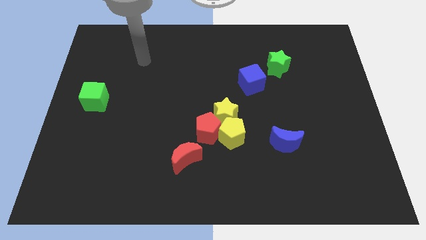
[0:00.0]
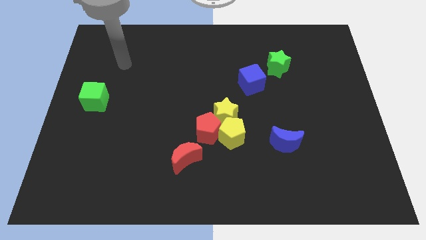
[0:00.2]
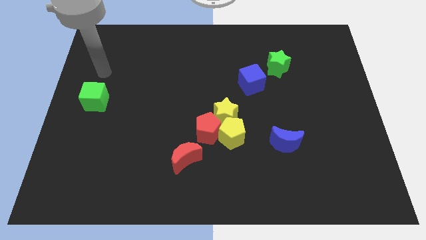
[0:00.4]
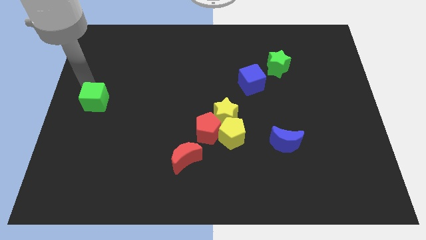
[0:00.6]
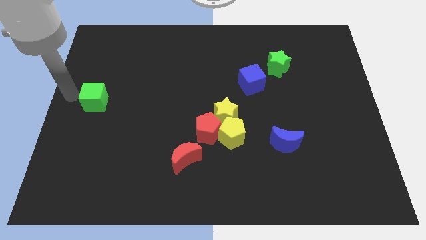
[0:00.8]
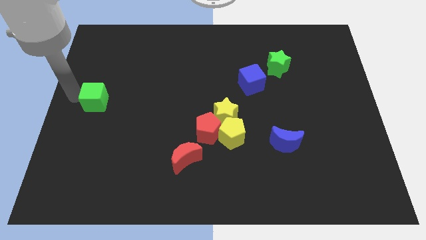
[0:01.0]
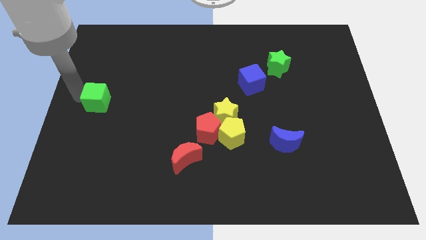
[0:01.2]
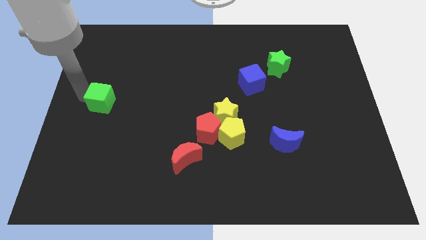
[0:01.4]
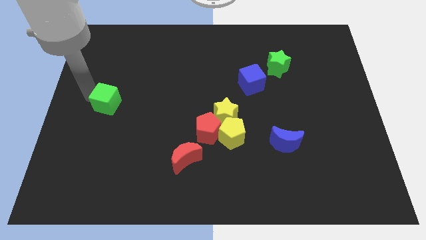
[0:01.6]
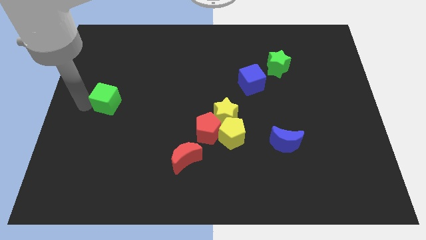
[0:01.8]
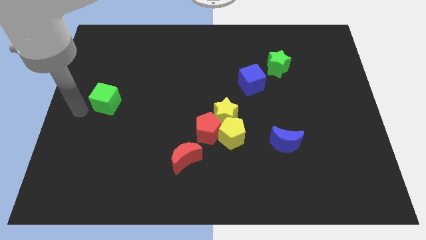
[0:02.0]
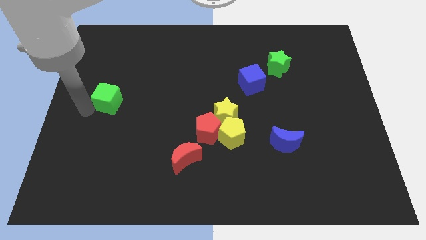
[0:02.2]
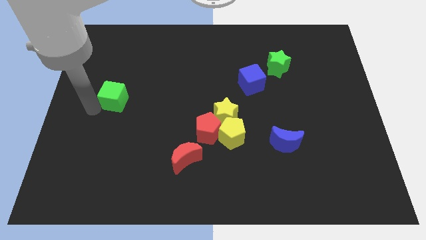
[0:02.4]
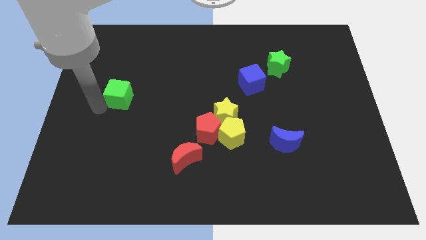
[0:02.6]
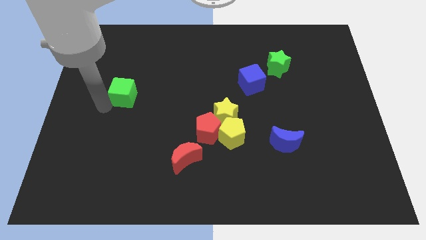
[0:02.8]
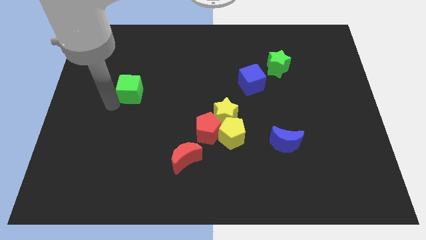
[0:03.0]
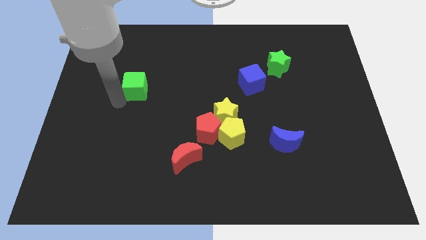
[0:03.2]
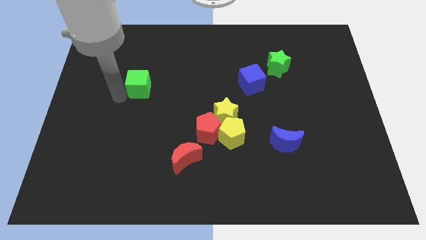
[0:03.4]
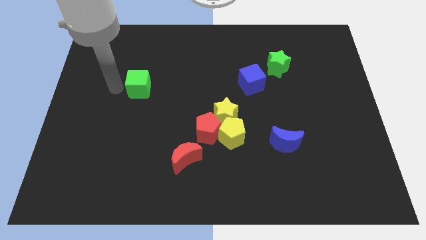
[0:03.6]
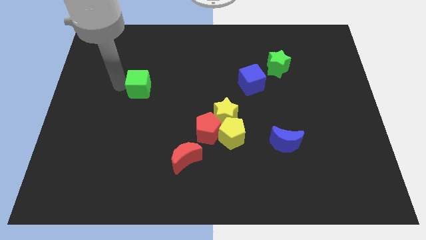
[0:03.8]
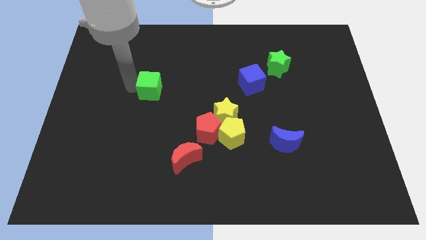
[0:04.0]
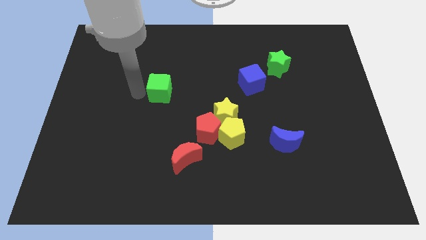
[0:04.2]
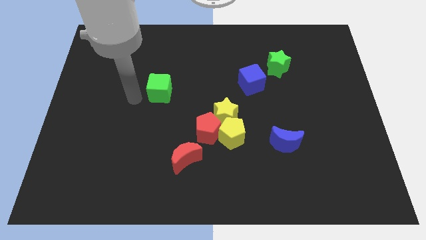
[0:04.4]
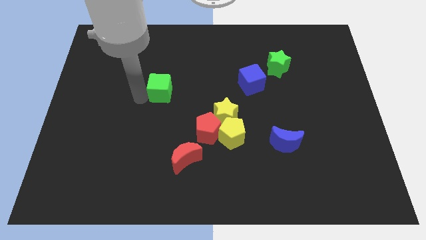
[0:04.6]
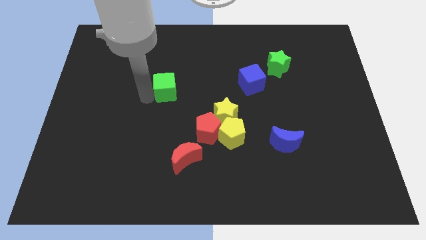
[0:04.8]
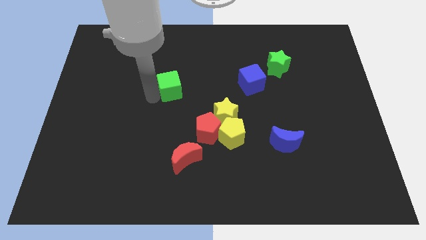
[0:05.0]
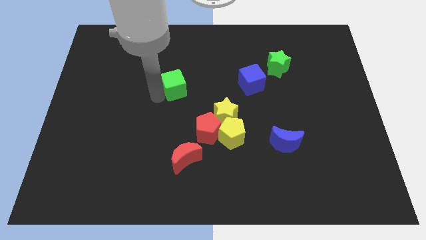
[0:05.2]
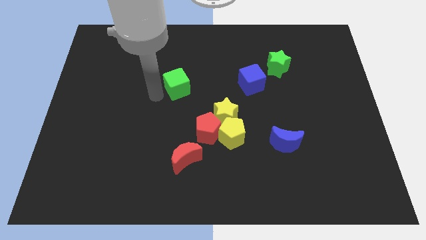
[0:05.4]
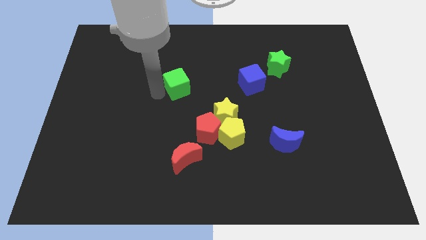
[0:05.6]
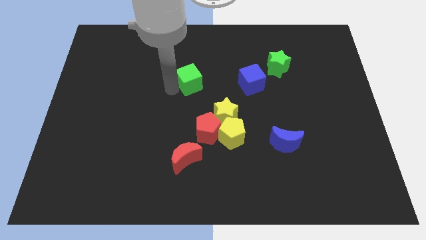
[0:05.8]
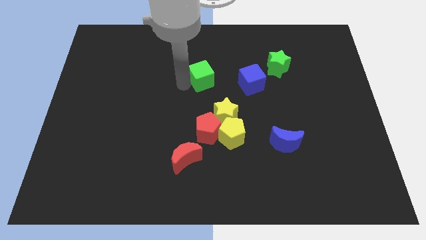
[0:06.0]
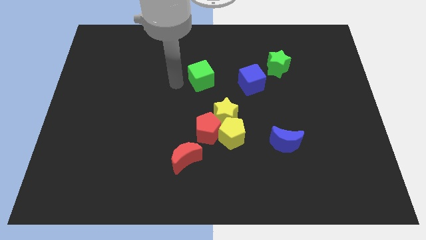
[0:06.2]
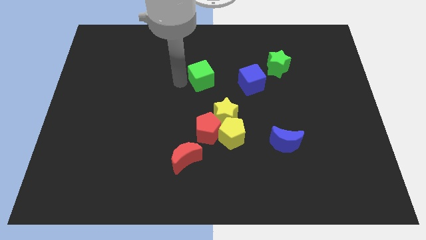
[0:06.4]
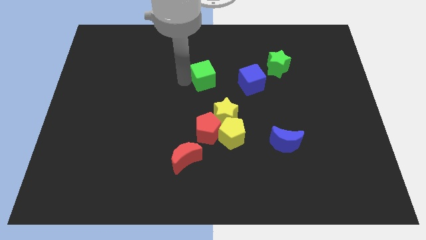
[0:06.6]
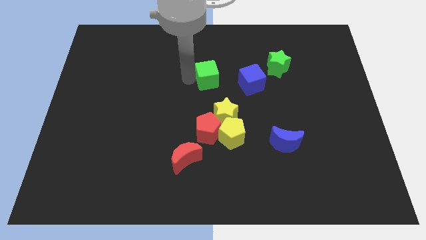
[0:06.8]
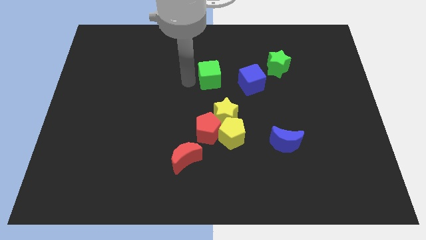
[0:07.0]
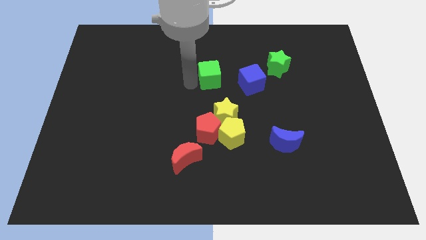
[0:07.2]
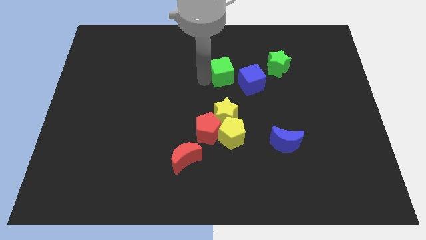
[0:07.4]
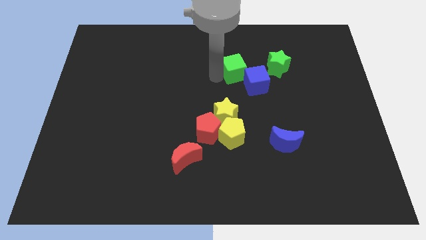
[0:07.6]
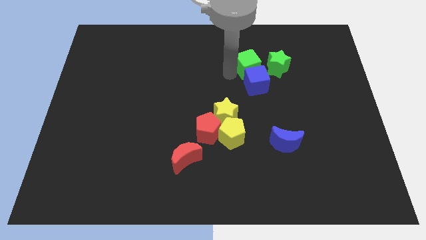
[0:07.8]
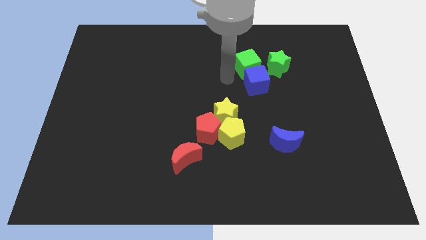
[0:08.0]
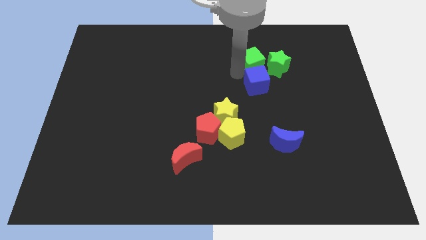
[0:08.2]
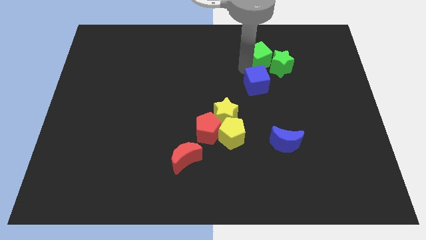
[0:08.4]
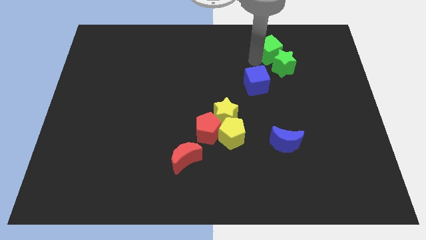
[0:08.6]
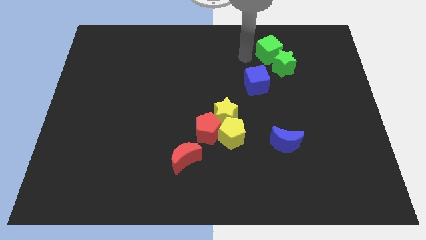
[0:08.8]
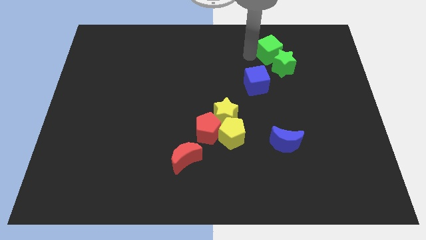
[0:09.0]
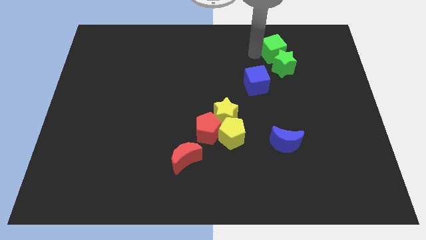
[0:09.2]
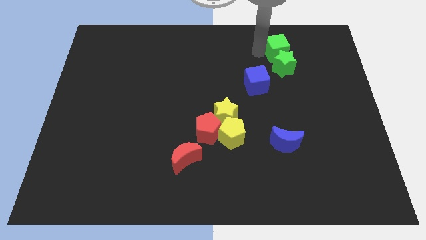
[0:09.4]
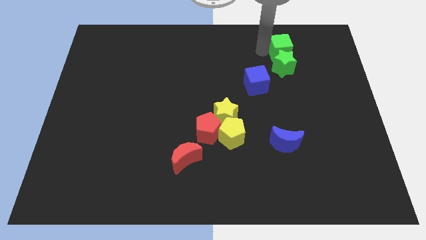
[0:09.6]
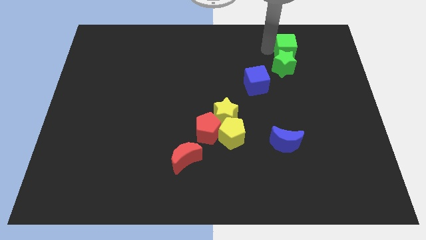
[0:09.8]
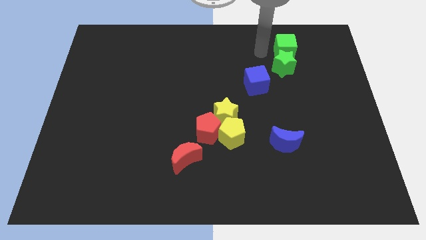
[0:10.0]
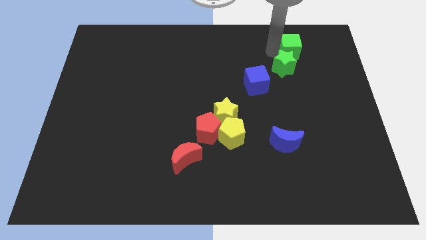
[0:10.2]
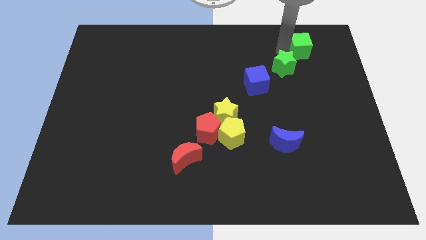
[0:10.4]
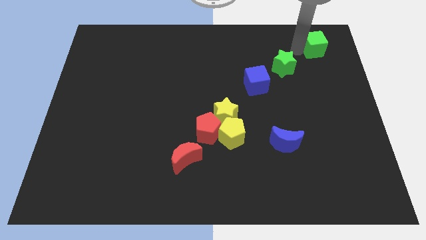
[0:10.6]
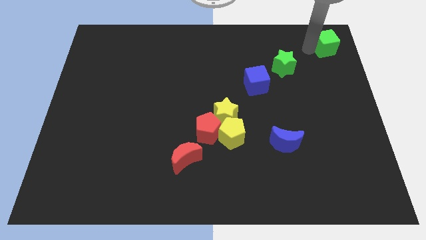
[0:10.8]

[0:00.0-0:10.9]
move the green cube to the top right of the board

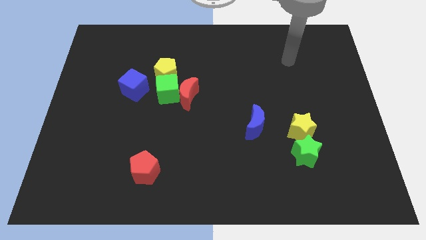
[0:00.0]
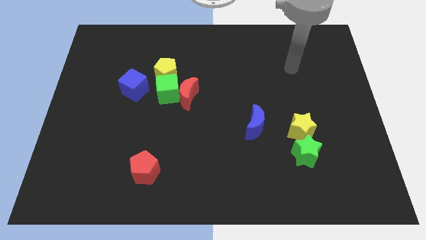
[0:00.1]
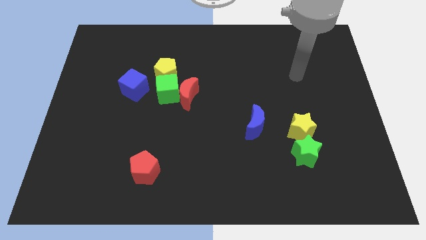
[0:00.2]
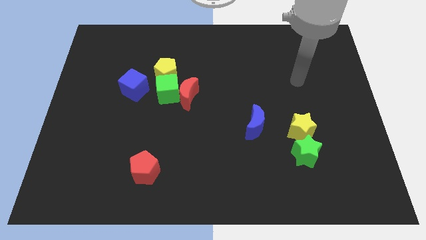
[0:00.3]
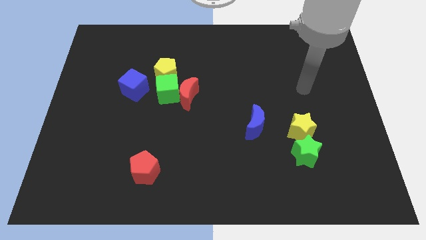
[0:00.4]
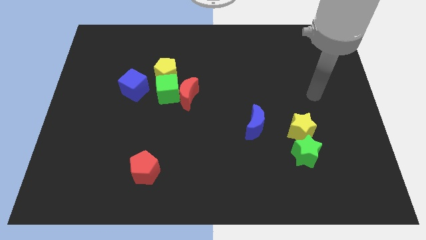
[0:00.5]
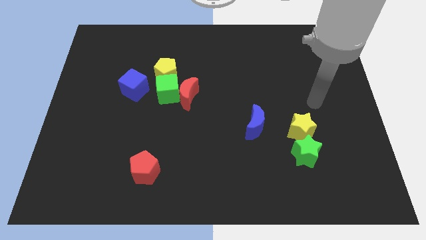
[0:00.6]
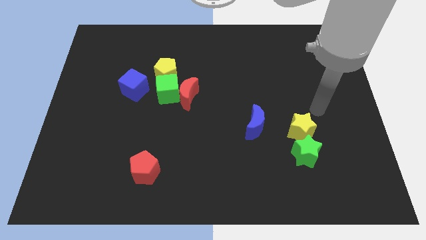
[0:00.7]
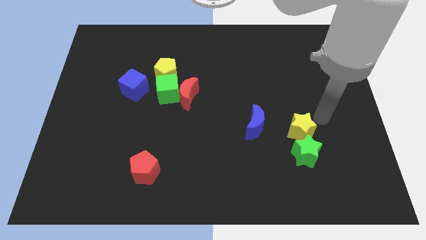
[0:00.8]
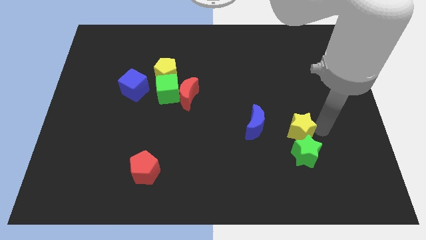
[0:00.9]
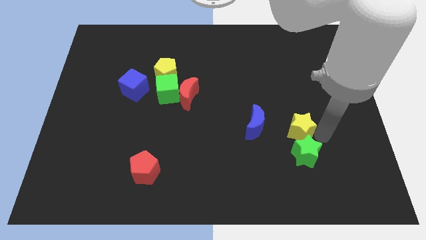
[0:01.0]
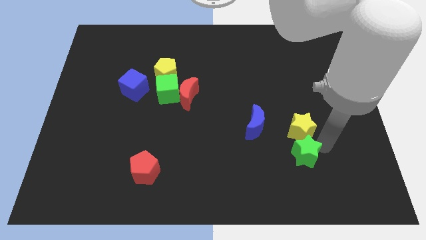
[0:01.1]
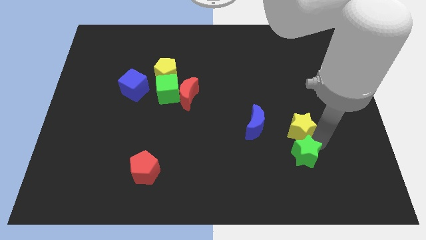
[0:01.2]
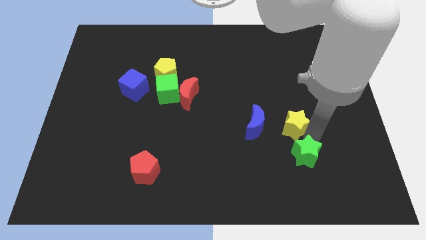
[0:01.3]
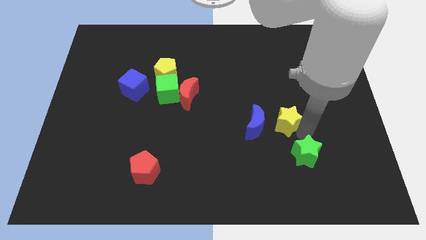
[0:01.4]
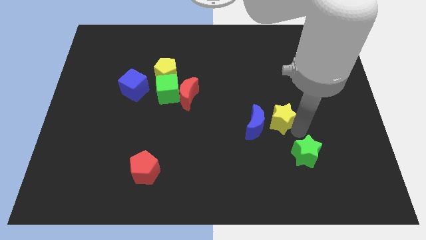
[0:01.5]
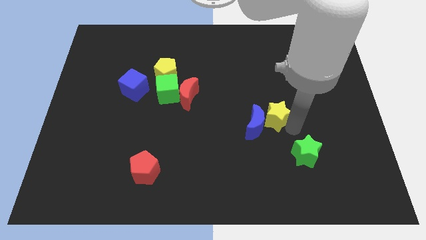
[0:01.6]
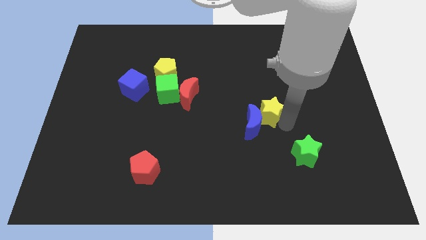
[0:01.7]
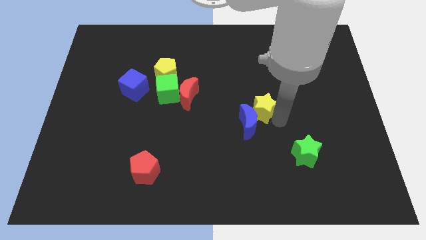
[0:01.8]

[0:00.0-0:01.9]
push the yellow star to the middle of the board
